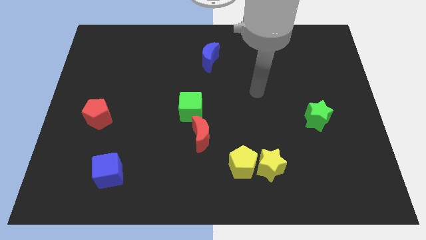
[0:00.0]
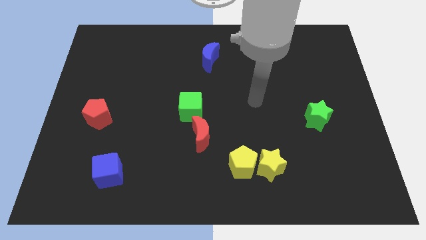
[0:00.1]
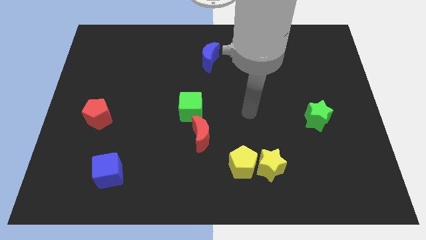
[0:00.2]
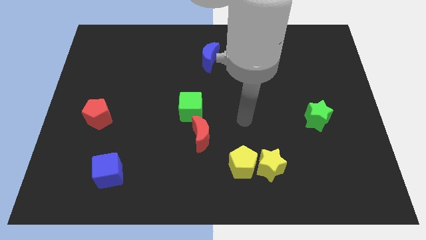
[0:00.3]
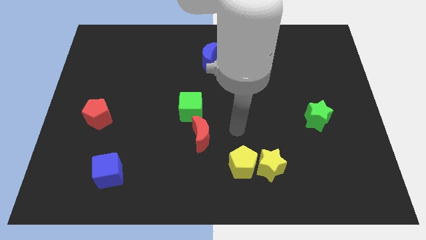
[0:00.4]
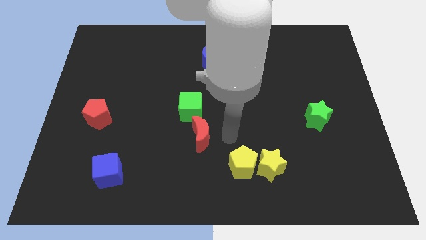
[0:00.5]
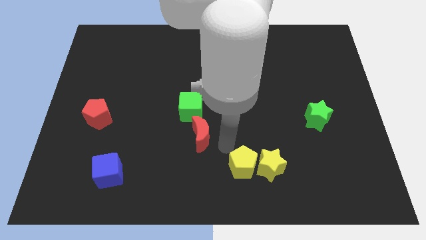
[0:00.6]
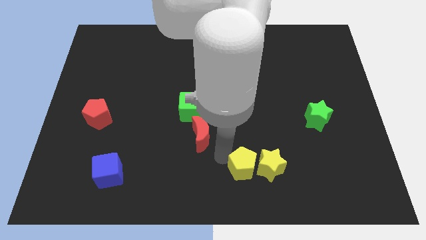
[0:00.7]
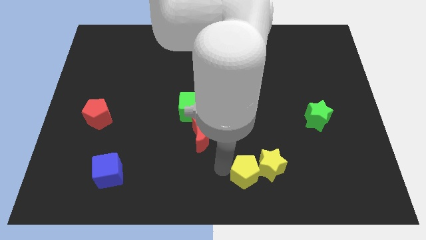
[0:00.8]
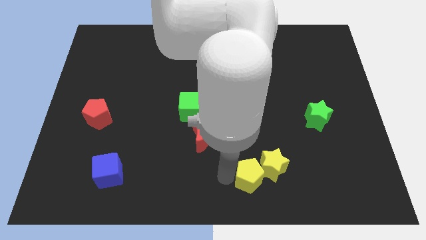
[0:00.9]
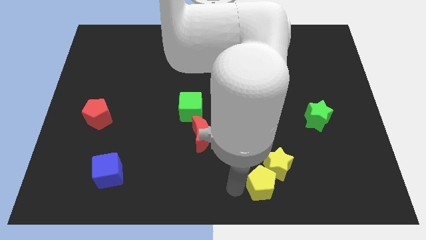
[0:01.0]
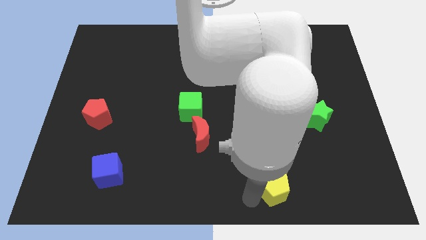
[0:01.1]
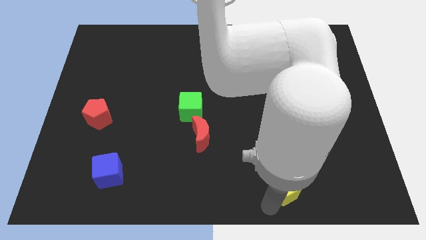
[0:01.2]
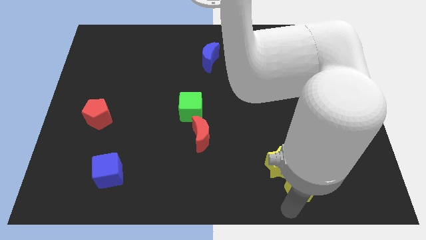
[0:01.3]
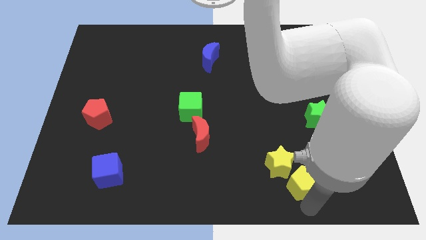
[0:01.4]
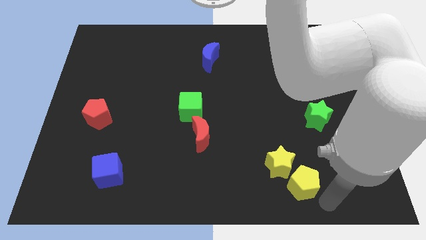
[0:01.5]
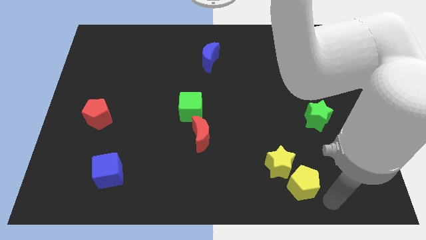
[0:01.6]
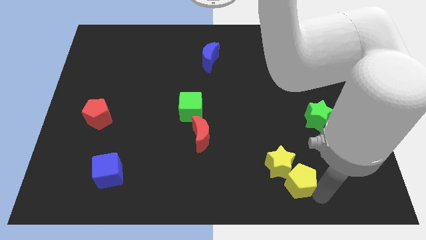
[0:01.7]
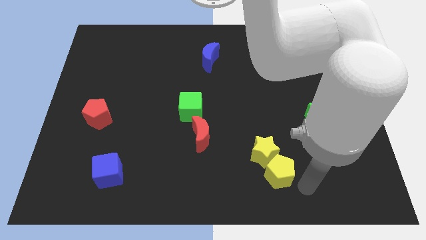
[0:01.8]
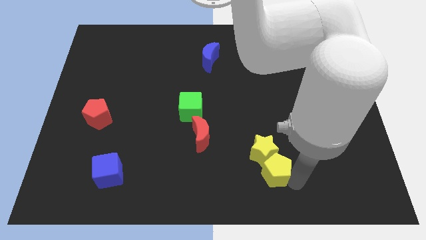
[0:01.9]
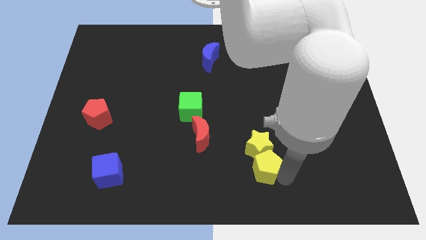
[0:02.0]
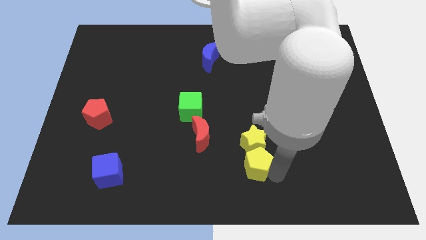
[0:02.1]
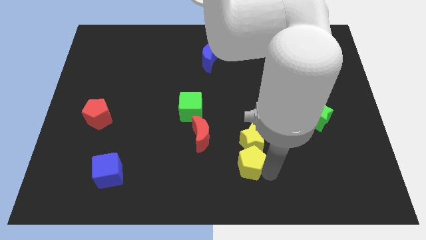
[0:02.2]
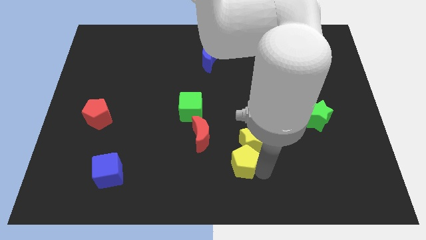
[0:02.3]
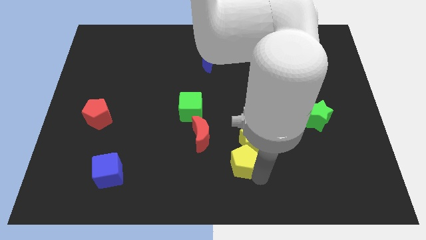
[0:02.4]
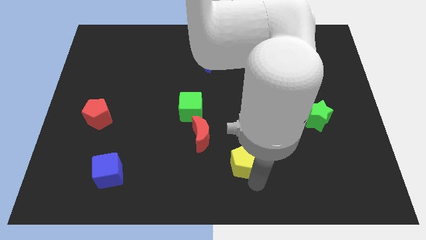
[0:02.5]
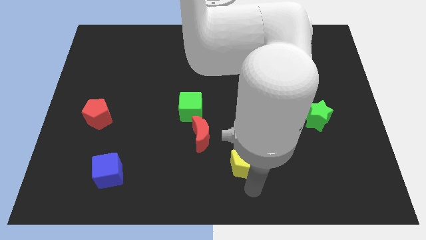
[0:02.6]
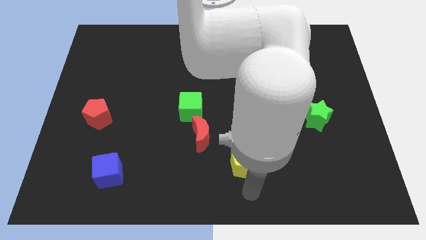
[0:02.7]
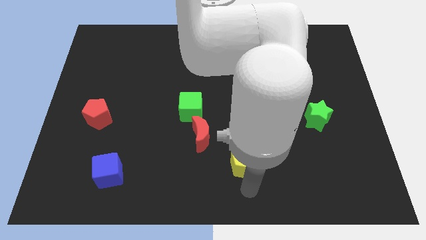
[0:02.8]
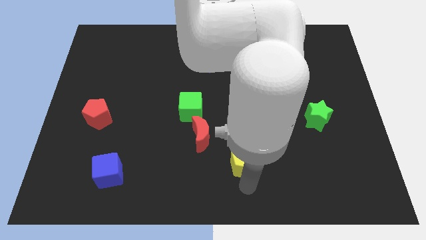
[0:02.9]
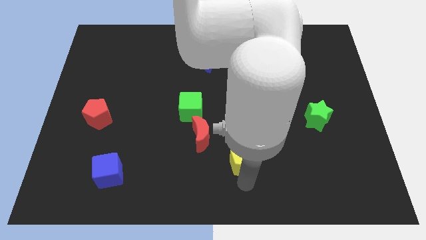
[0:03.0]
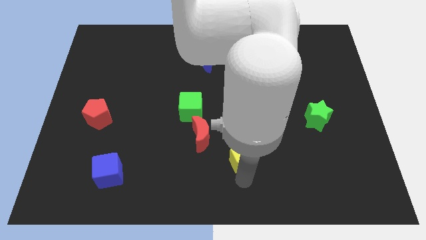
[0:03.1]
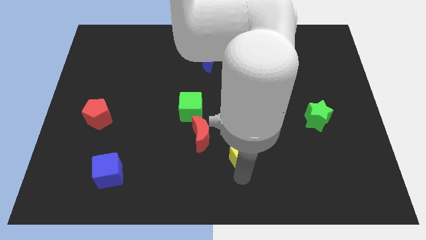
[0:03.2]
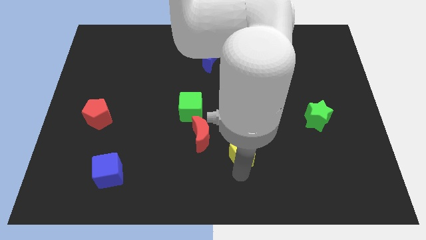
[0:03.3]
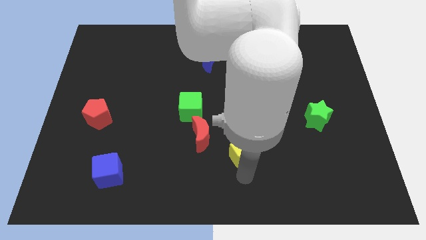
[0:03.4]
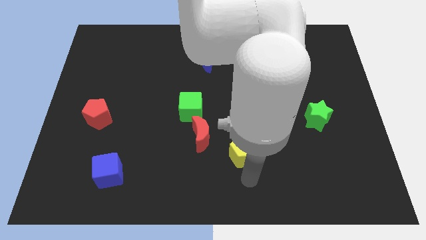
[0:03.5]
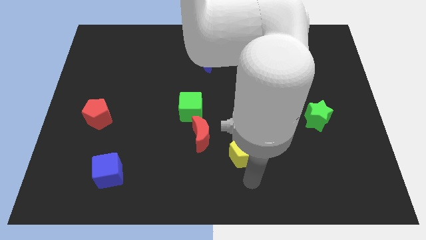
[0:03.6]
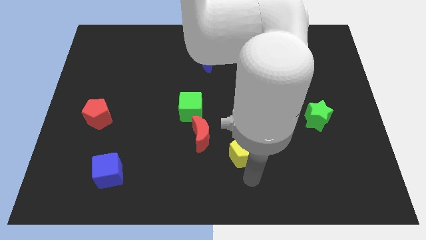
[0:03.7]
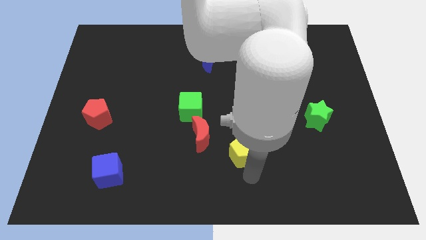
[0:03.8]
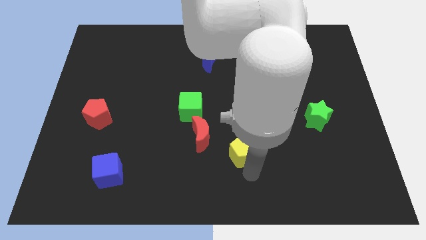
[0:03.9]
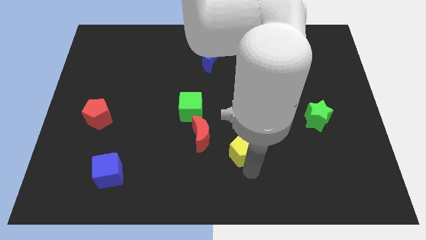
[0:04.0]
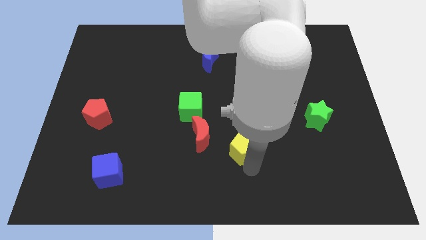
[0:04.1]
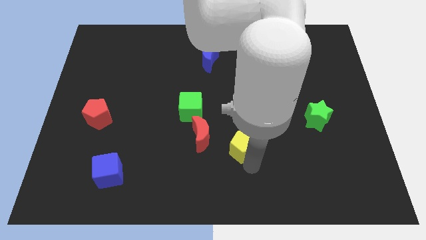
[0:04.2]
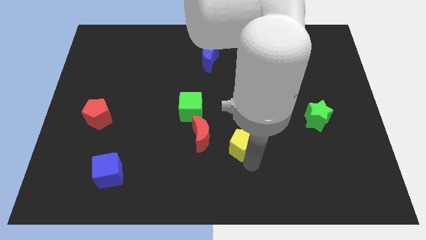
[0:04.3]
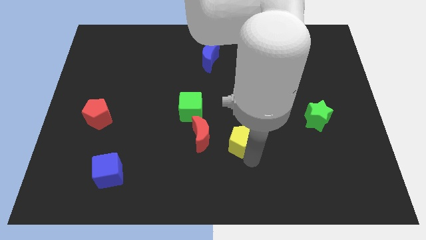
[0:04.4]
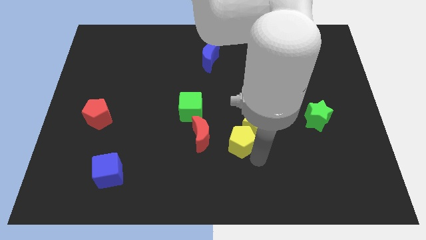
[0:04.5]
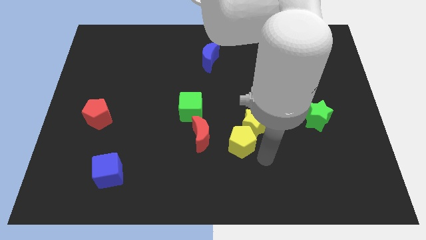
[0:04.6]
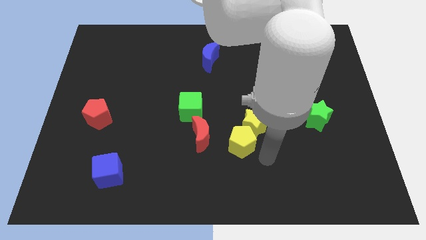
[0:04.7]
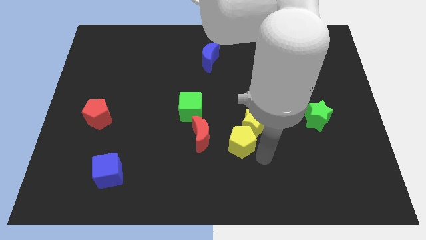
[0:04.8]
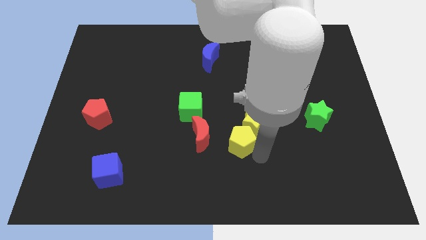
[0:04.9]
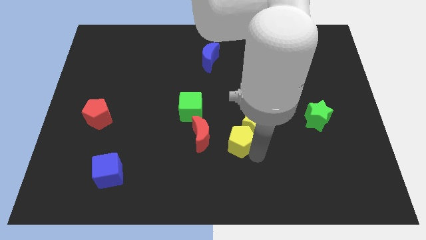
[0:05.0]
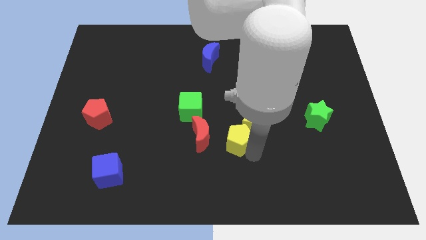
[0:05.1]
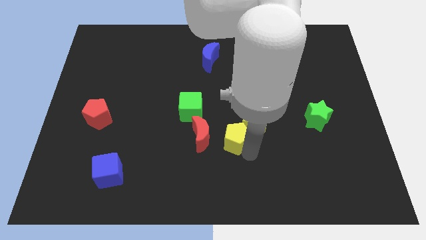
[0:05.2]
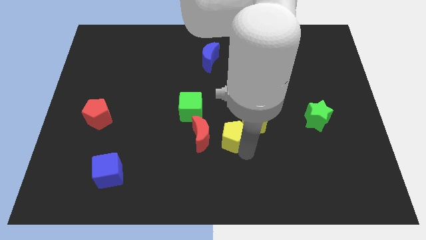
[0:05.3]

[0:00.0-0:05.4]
put the yellow pentagon diagonally down and to the right of the green cube

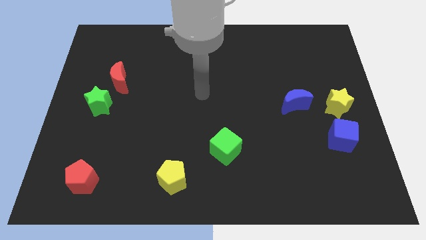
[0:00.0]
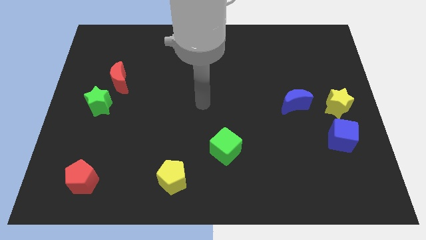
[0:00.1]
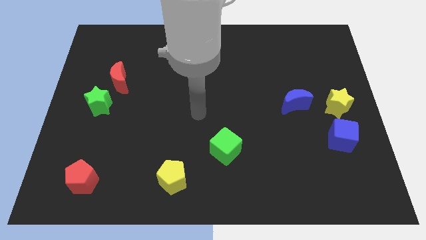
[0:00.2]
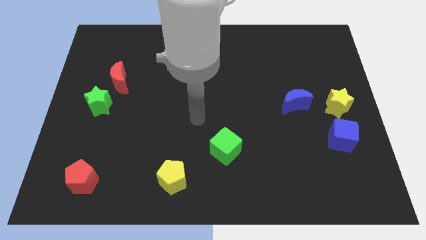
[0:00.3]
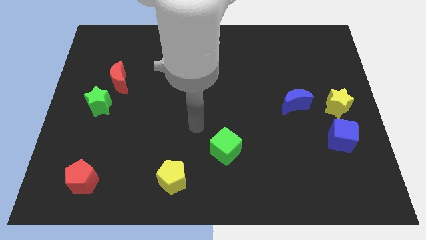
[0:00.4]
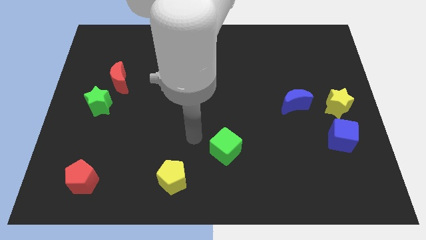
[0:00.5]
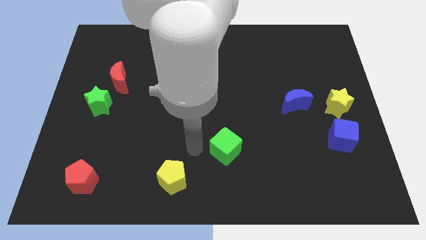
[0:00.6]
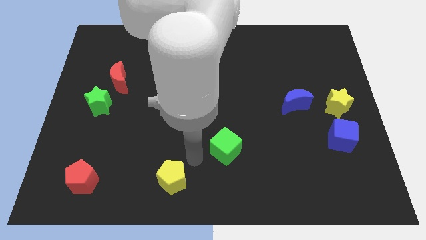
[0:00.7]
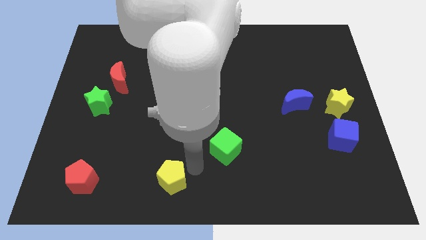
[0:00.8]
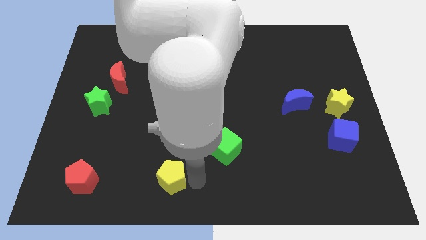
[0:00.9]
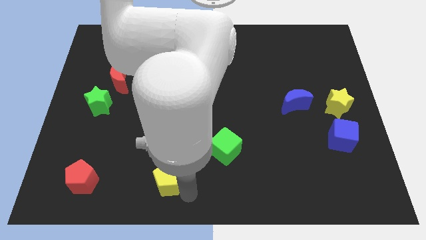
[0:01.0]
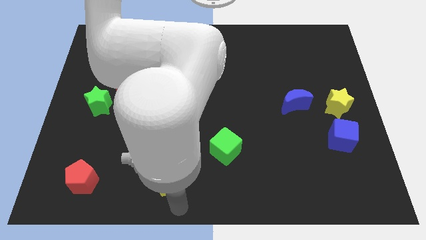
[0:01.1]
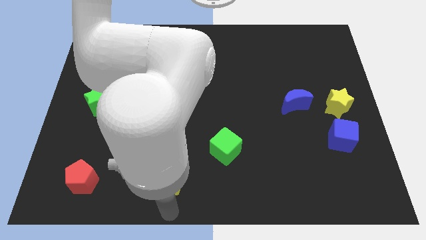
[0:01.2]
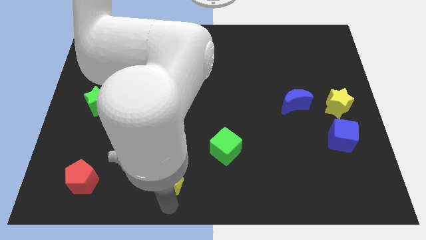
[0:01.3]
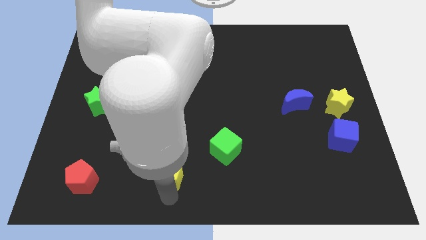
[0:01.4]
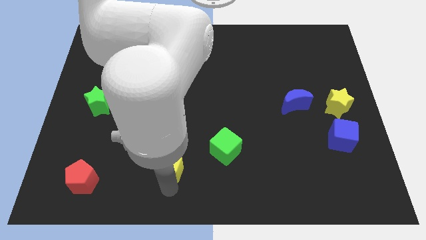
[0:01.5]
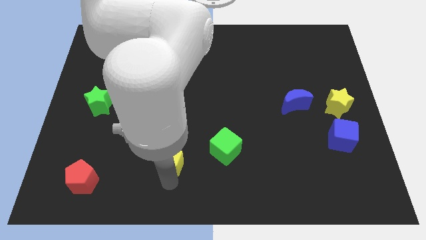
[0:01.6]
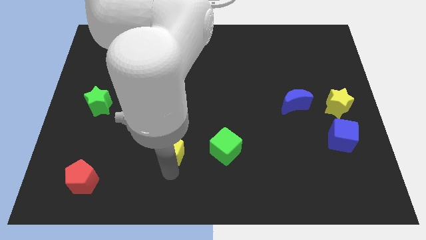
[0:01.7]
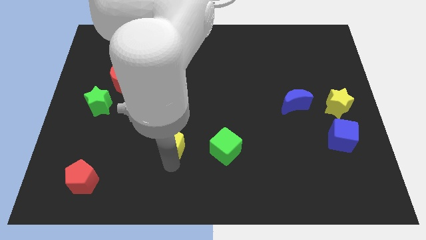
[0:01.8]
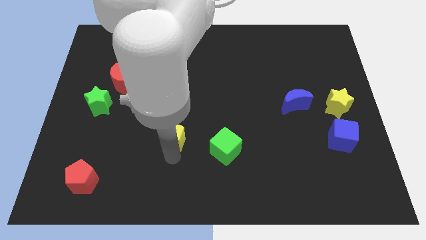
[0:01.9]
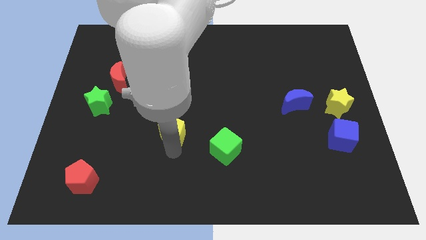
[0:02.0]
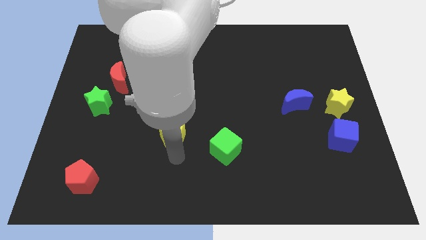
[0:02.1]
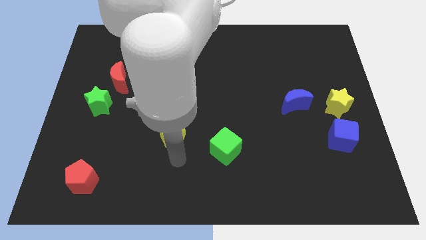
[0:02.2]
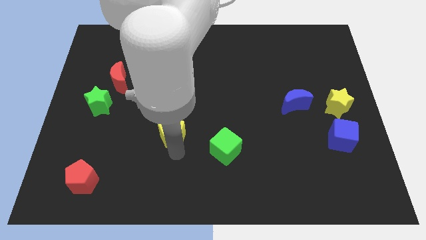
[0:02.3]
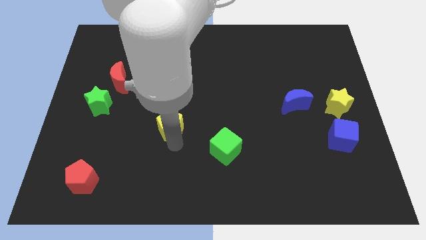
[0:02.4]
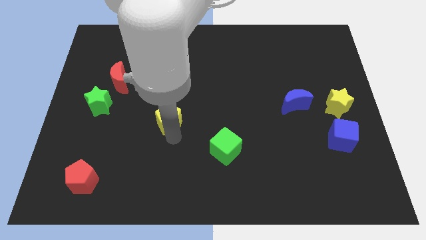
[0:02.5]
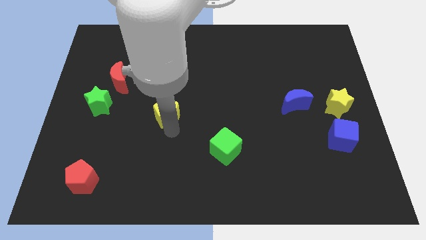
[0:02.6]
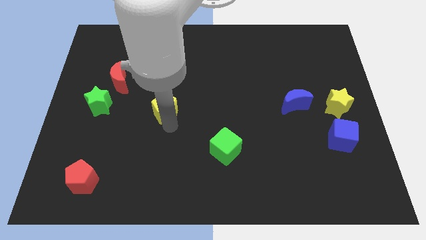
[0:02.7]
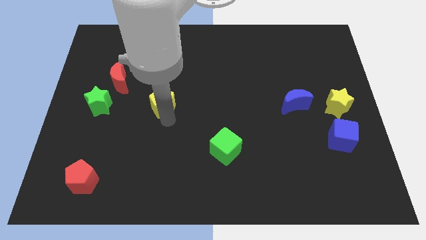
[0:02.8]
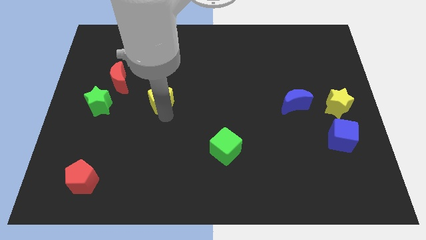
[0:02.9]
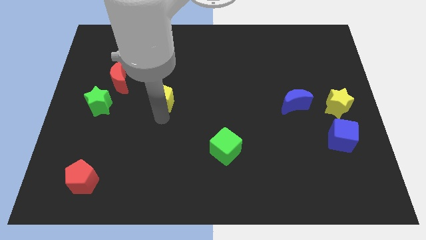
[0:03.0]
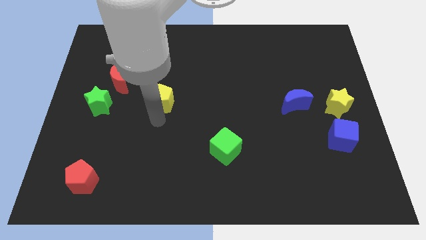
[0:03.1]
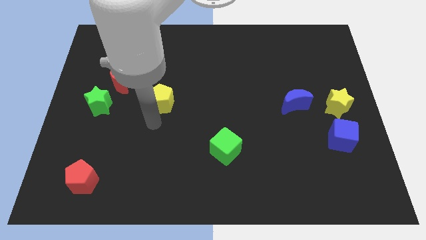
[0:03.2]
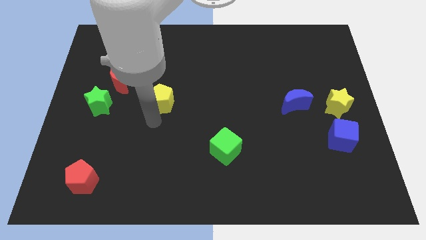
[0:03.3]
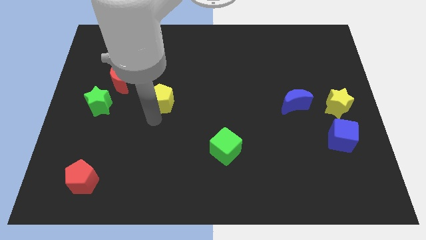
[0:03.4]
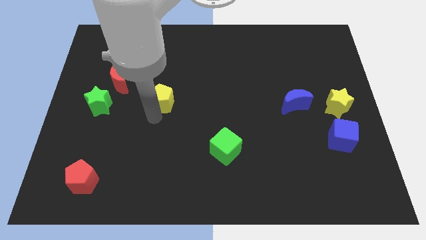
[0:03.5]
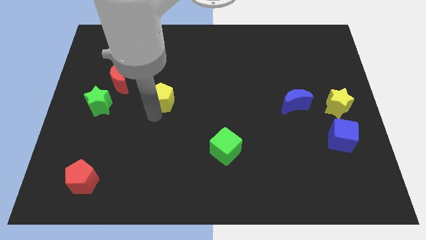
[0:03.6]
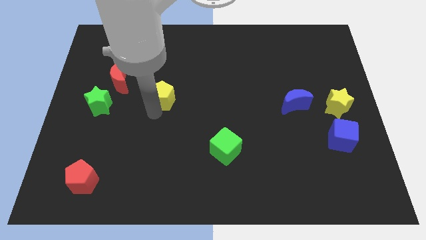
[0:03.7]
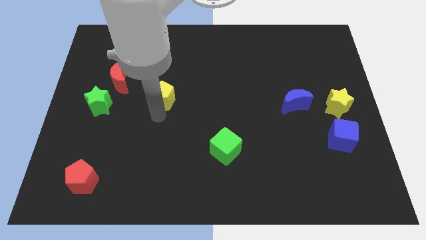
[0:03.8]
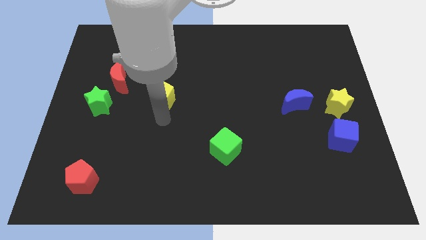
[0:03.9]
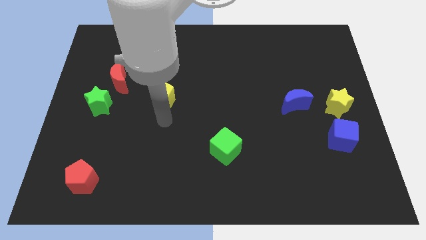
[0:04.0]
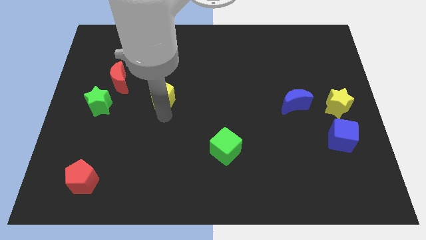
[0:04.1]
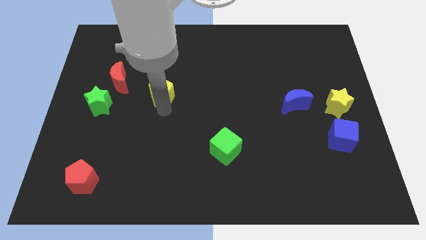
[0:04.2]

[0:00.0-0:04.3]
push the yellow pentagon just right of the red moon
